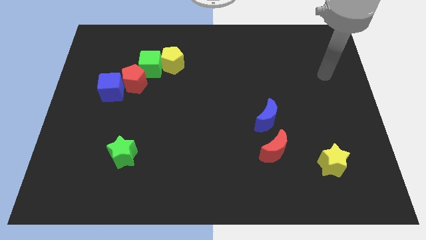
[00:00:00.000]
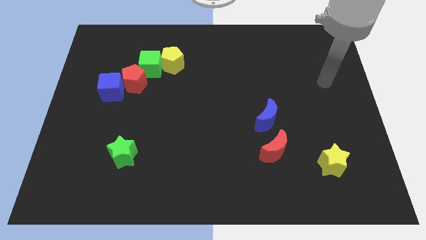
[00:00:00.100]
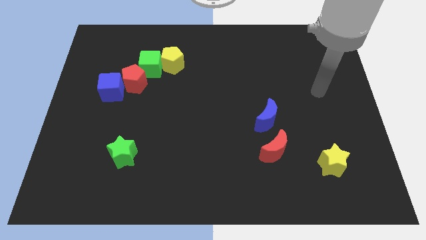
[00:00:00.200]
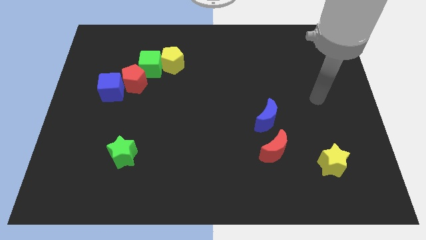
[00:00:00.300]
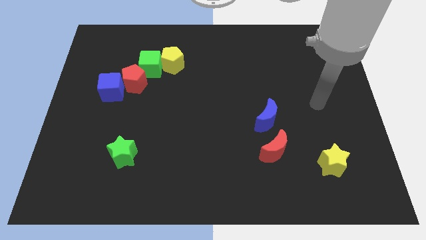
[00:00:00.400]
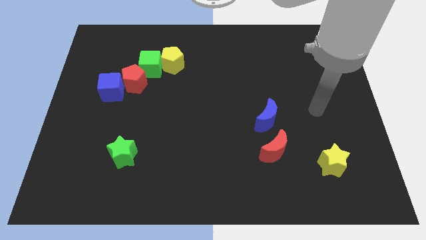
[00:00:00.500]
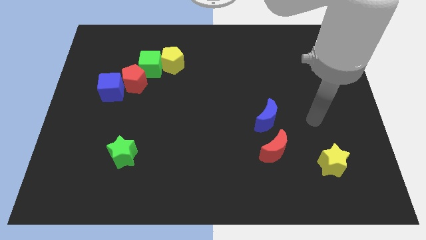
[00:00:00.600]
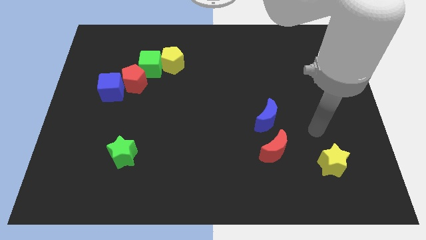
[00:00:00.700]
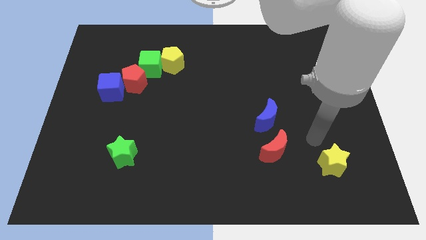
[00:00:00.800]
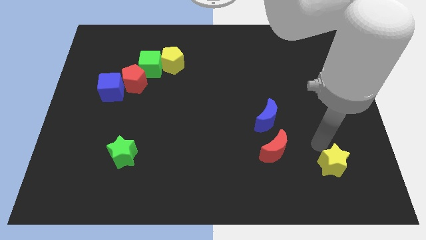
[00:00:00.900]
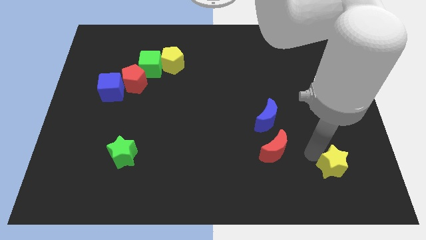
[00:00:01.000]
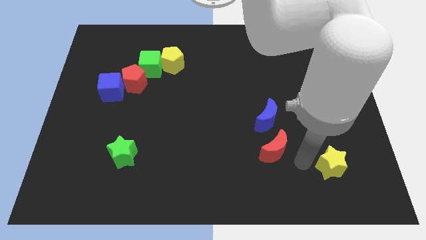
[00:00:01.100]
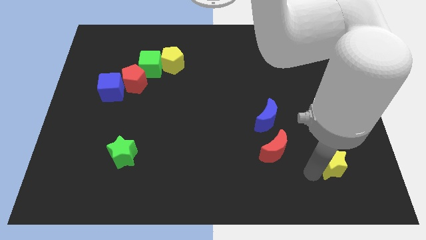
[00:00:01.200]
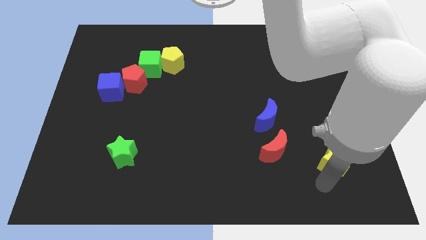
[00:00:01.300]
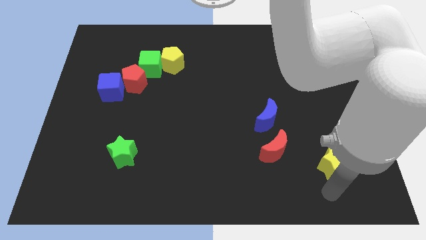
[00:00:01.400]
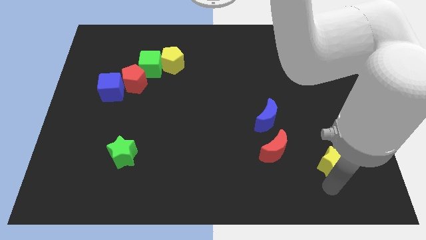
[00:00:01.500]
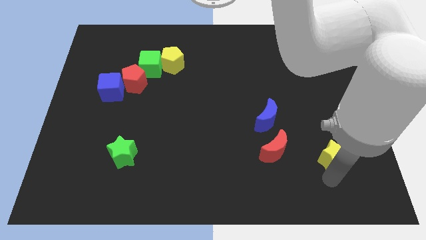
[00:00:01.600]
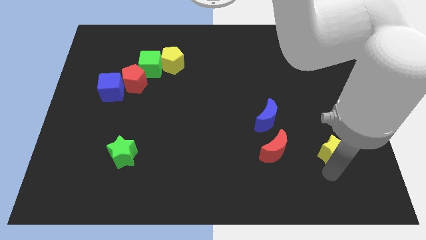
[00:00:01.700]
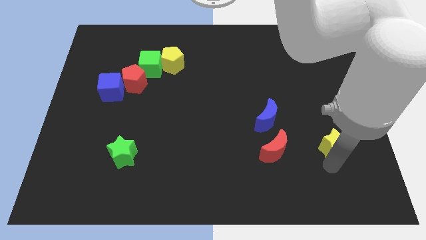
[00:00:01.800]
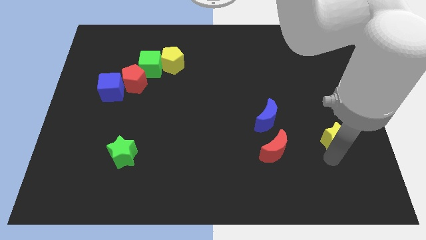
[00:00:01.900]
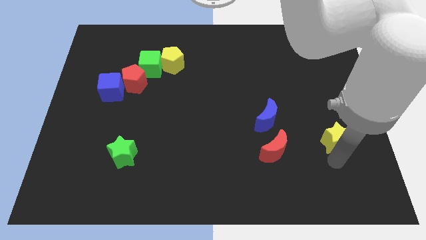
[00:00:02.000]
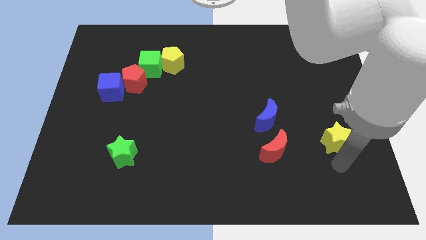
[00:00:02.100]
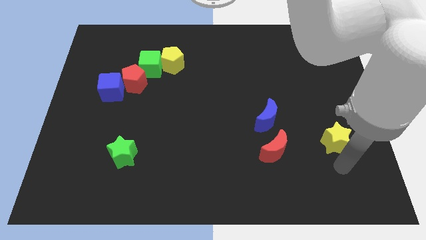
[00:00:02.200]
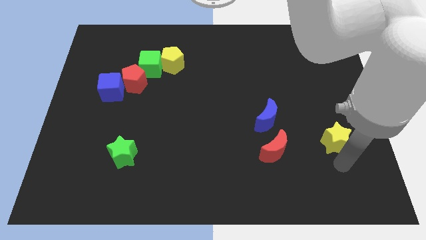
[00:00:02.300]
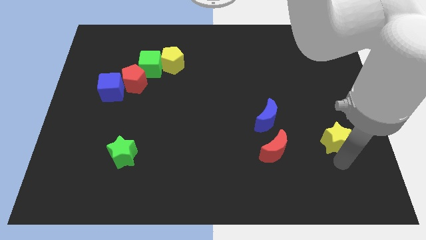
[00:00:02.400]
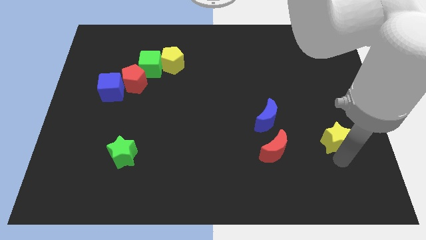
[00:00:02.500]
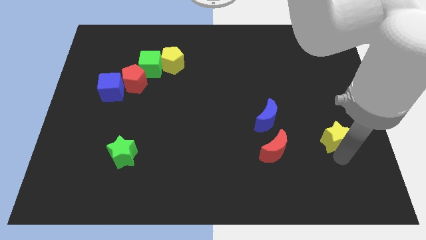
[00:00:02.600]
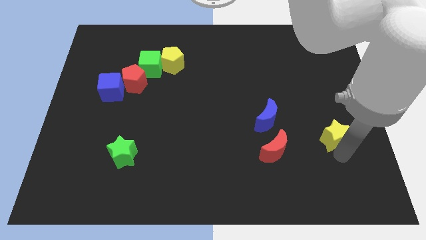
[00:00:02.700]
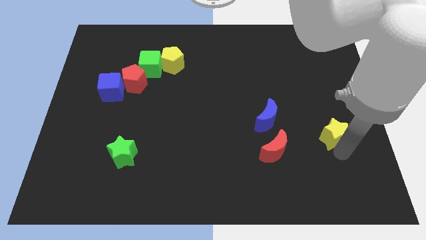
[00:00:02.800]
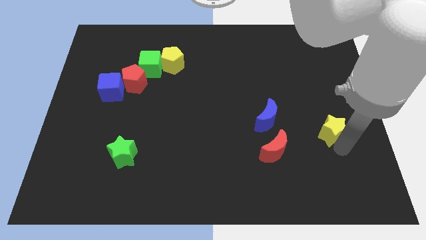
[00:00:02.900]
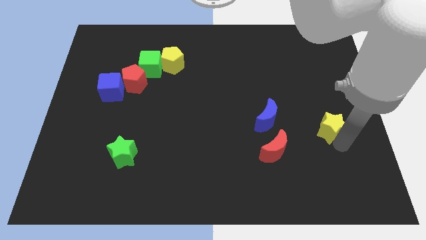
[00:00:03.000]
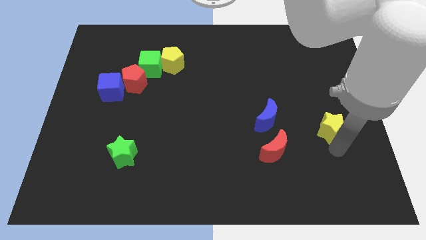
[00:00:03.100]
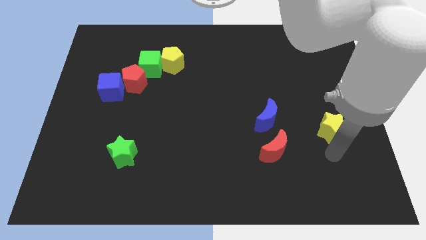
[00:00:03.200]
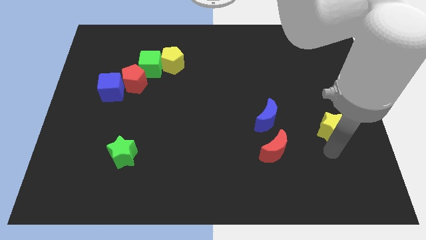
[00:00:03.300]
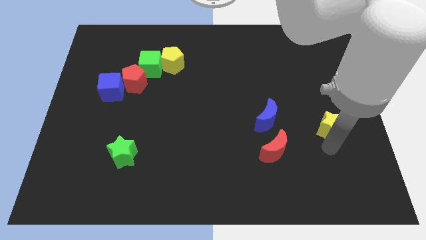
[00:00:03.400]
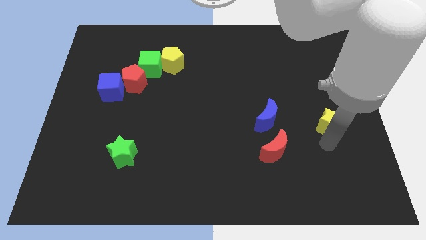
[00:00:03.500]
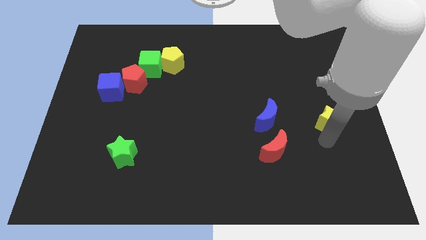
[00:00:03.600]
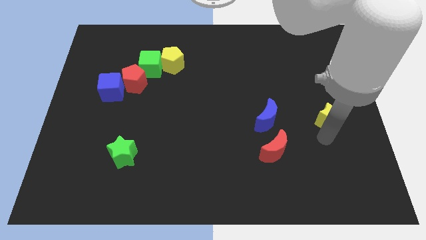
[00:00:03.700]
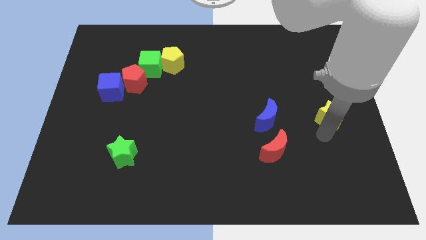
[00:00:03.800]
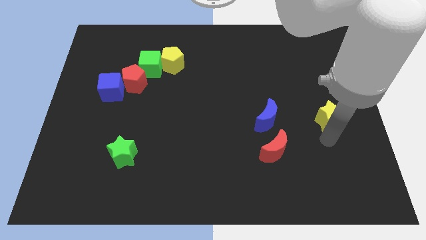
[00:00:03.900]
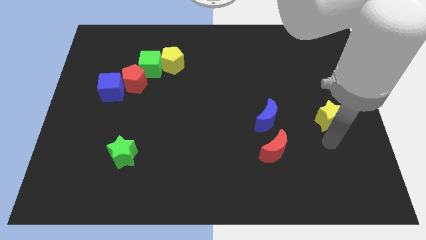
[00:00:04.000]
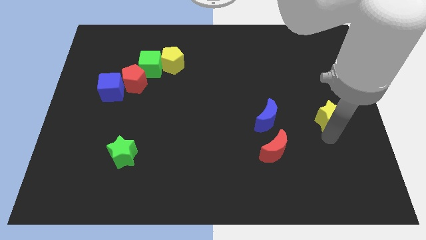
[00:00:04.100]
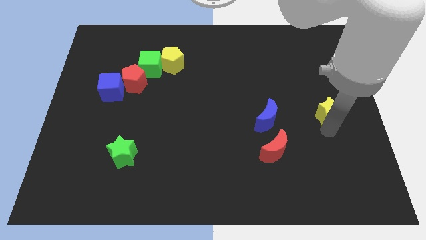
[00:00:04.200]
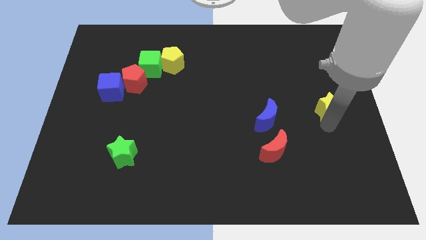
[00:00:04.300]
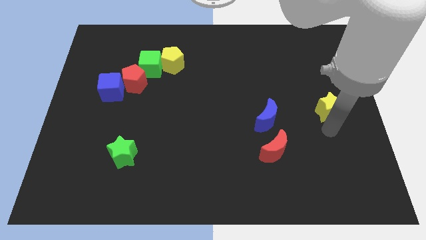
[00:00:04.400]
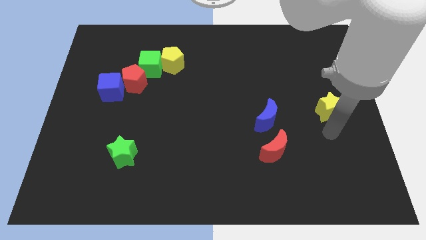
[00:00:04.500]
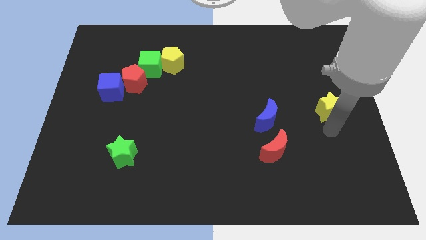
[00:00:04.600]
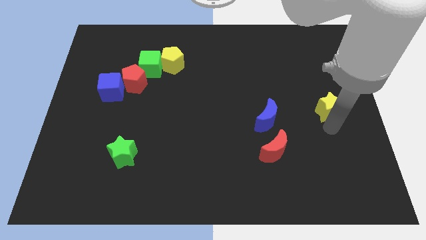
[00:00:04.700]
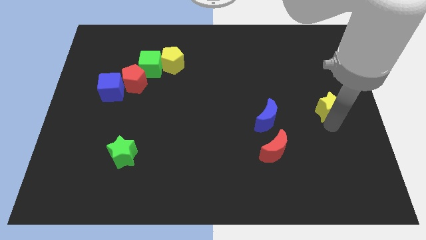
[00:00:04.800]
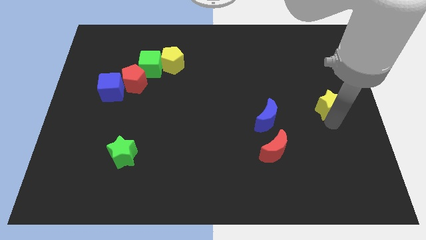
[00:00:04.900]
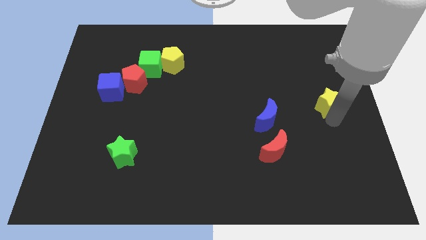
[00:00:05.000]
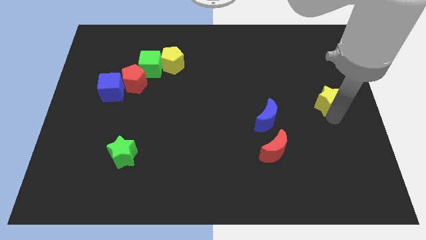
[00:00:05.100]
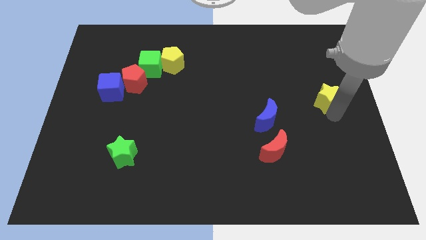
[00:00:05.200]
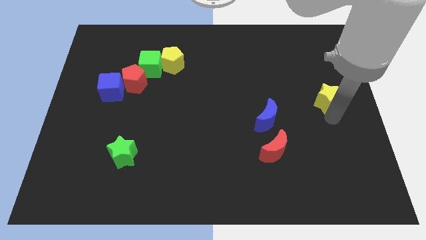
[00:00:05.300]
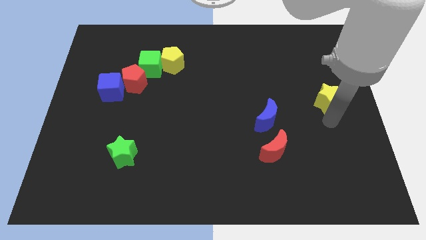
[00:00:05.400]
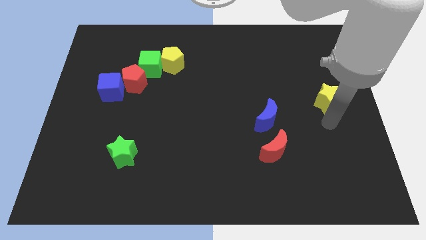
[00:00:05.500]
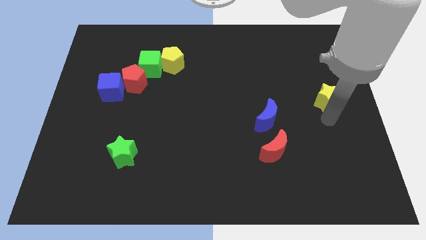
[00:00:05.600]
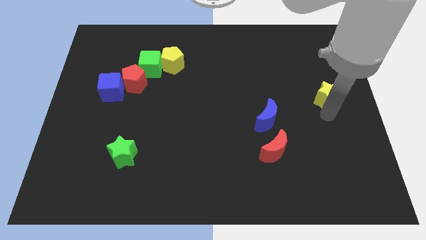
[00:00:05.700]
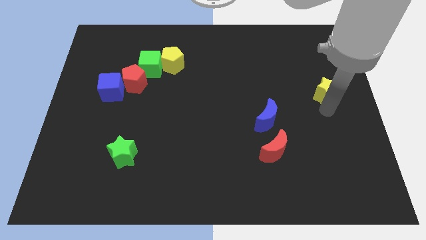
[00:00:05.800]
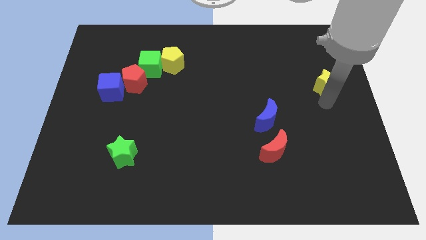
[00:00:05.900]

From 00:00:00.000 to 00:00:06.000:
move the yellow star up

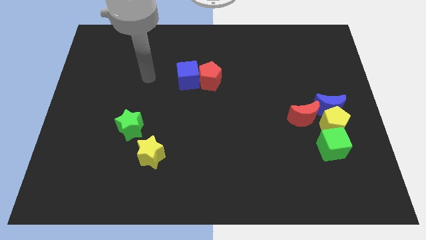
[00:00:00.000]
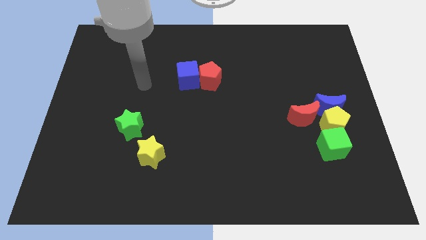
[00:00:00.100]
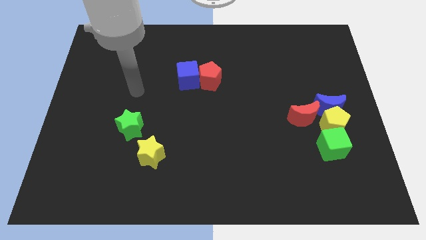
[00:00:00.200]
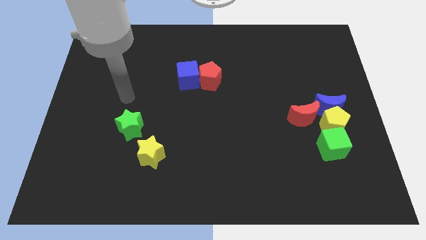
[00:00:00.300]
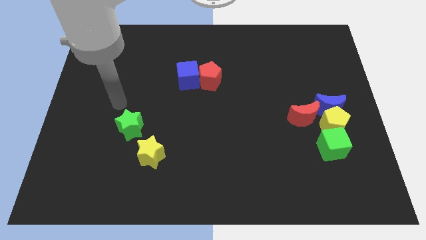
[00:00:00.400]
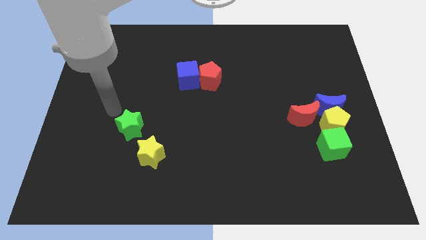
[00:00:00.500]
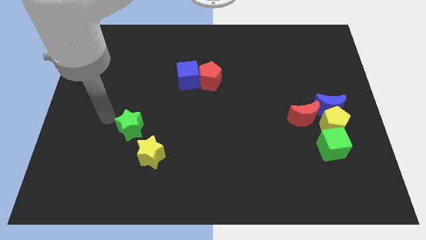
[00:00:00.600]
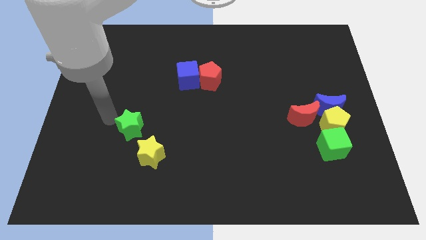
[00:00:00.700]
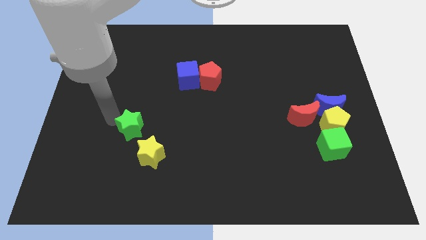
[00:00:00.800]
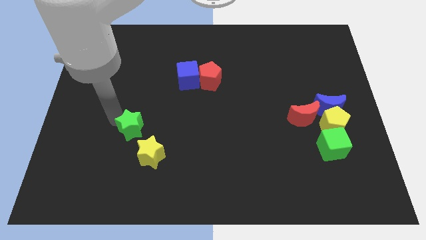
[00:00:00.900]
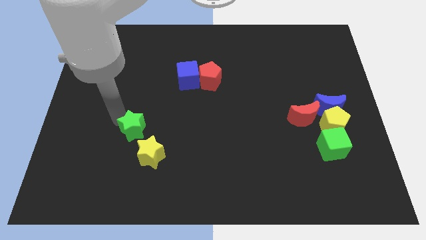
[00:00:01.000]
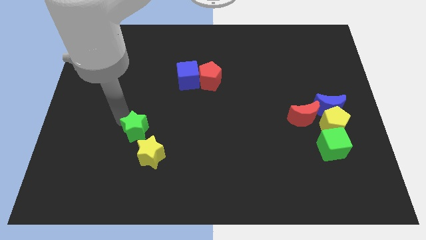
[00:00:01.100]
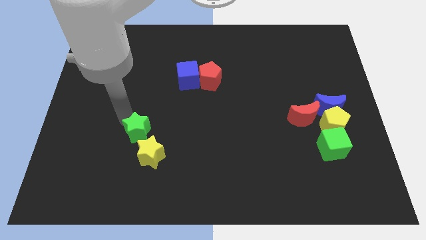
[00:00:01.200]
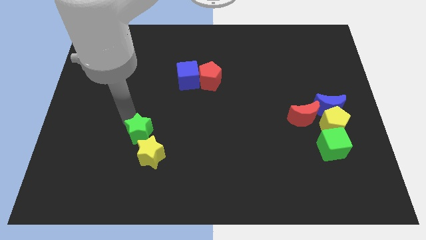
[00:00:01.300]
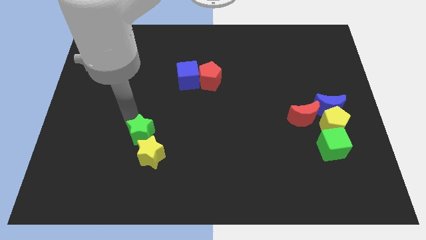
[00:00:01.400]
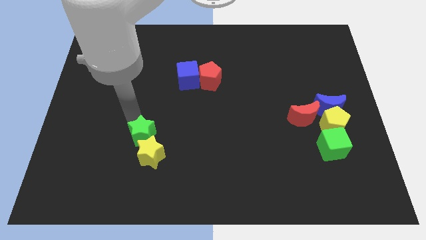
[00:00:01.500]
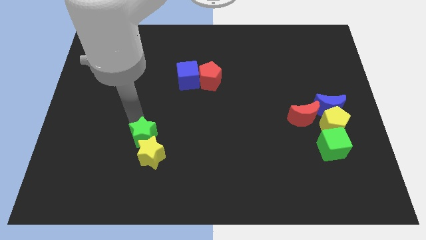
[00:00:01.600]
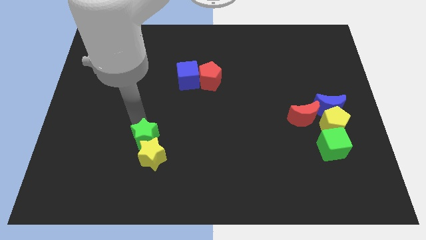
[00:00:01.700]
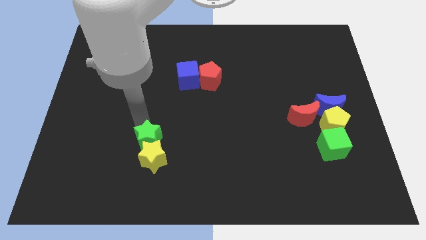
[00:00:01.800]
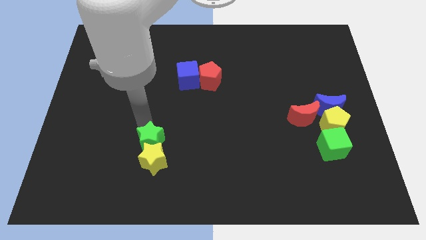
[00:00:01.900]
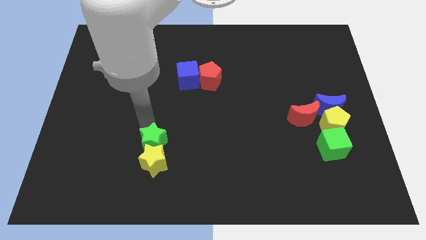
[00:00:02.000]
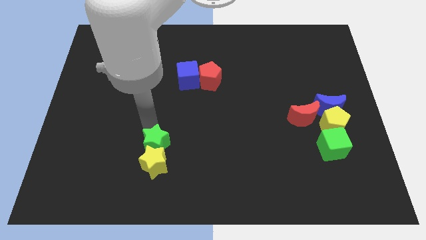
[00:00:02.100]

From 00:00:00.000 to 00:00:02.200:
slide the green star down and then to the right a bit
